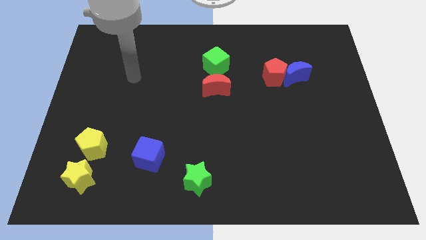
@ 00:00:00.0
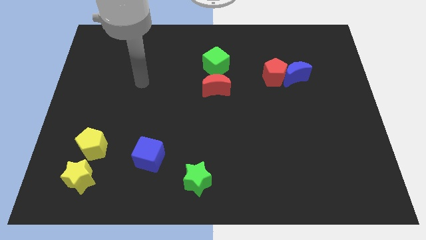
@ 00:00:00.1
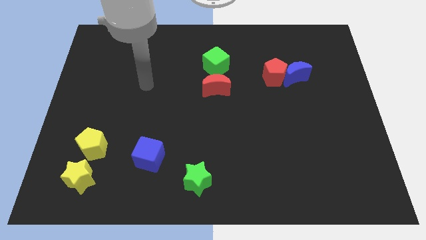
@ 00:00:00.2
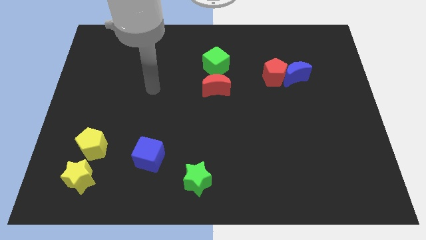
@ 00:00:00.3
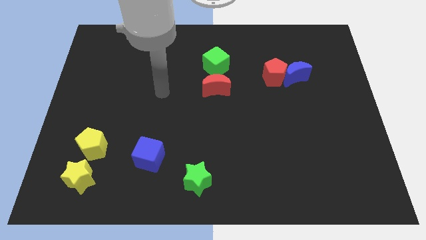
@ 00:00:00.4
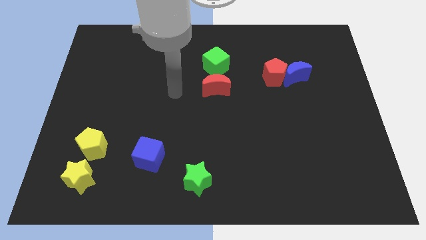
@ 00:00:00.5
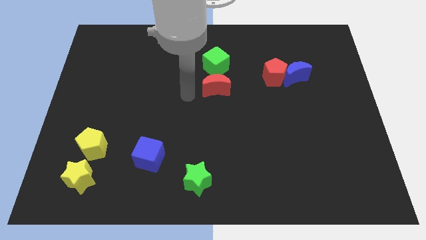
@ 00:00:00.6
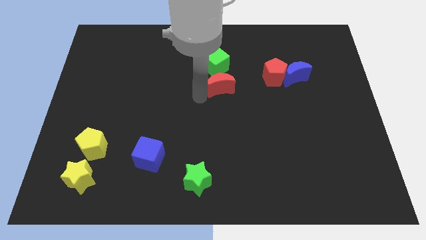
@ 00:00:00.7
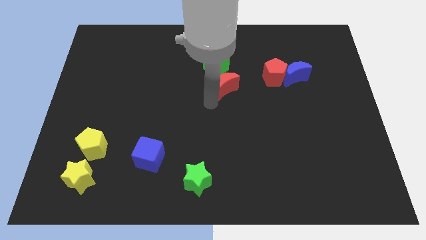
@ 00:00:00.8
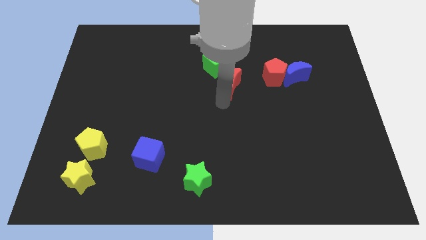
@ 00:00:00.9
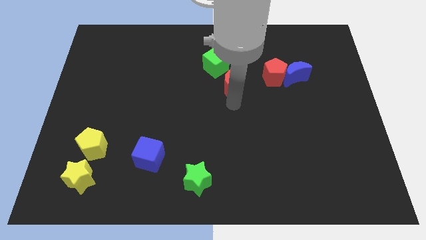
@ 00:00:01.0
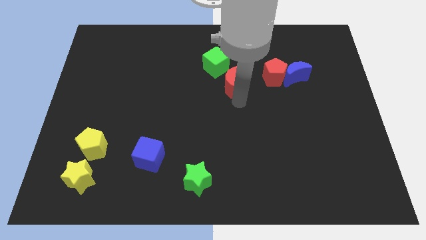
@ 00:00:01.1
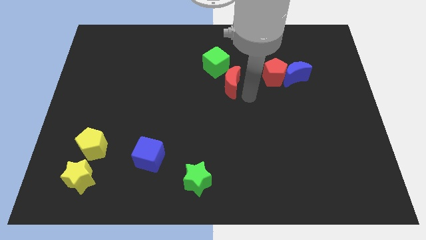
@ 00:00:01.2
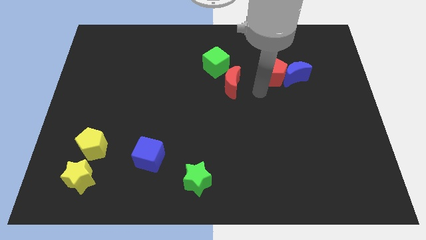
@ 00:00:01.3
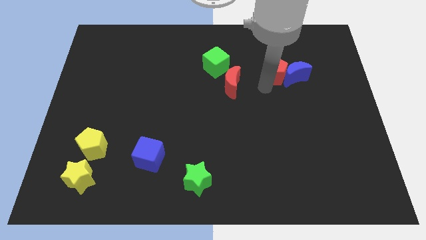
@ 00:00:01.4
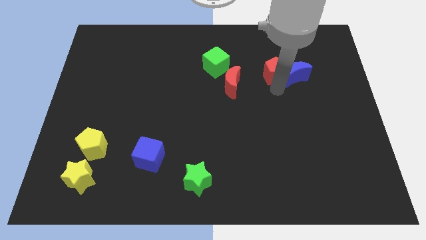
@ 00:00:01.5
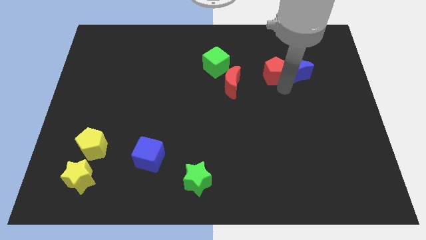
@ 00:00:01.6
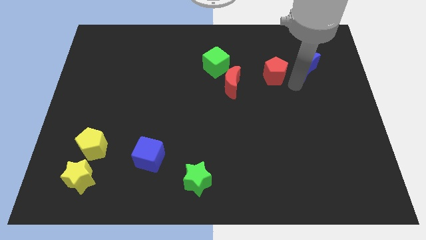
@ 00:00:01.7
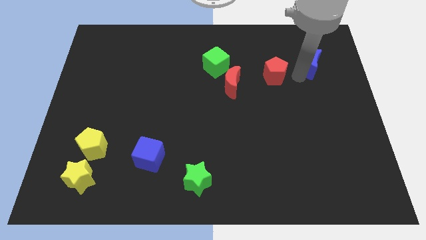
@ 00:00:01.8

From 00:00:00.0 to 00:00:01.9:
pull the red pentagon apart from the blue moon

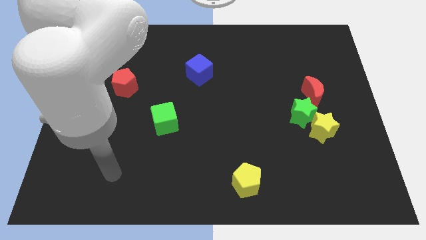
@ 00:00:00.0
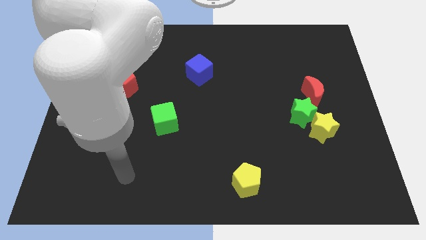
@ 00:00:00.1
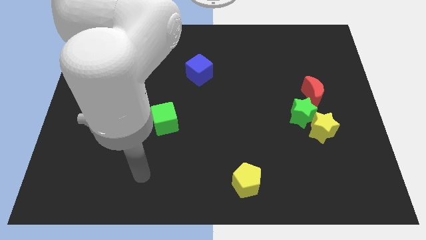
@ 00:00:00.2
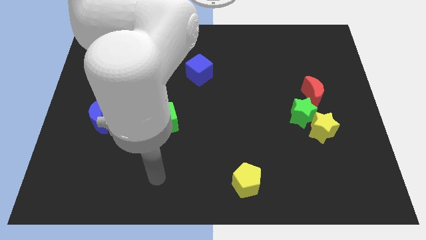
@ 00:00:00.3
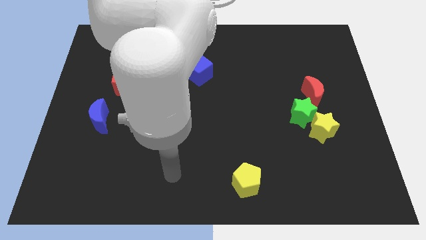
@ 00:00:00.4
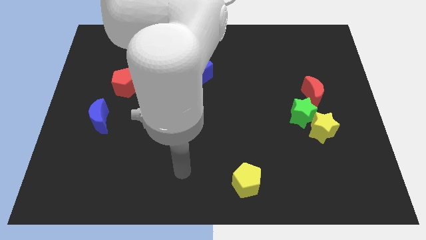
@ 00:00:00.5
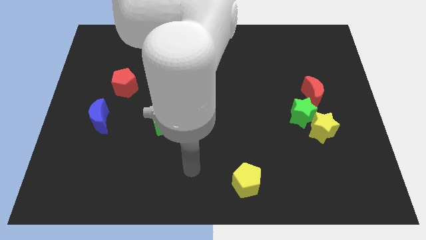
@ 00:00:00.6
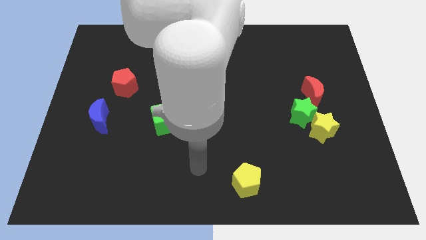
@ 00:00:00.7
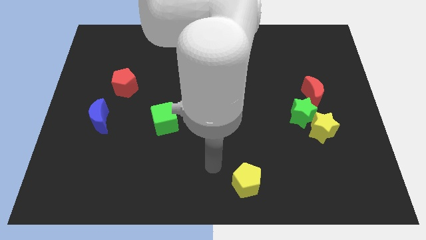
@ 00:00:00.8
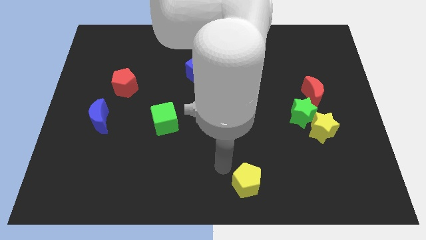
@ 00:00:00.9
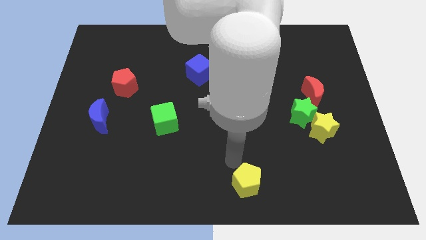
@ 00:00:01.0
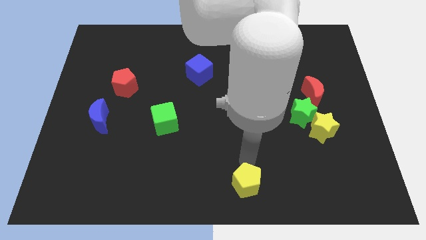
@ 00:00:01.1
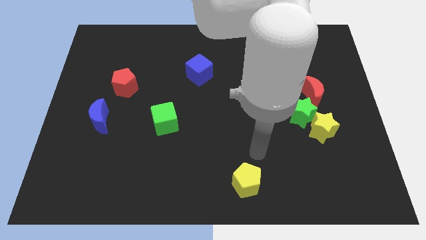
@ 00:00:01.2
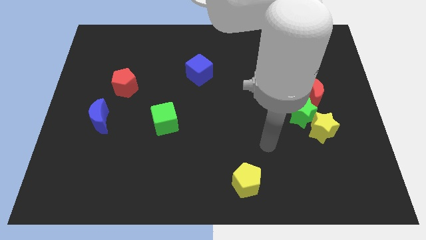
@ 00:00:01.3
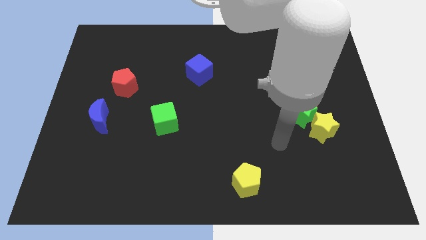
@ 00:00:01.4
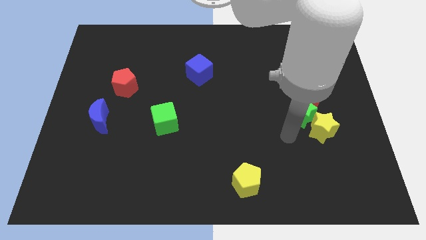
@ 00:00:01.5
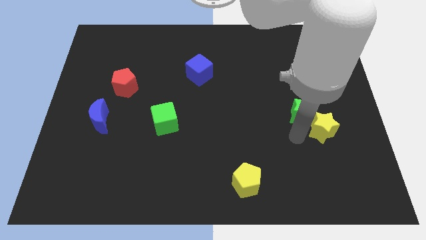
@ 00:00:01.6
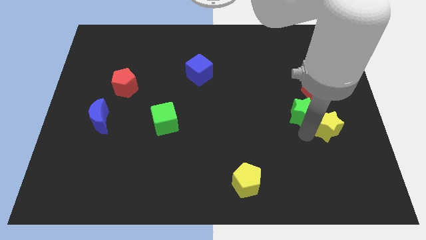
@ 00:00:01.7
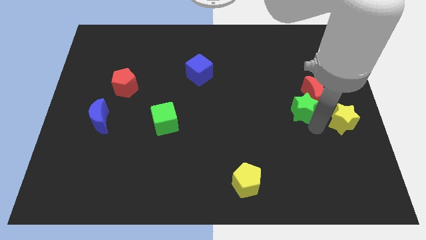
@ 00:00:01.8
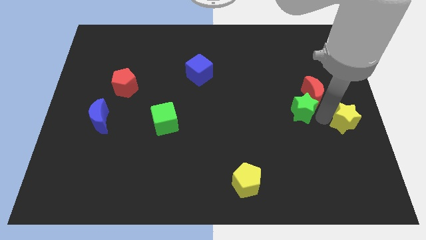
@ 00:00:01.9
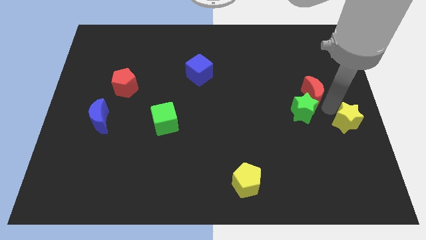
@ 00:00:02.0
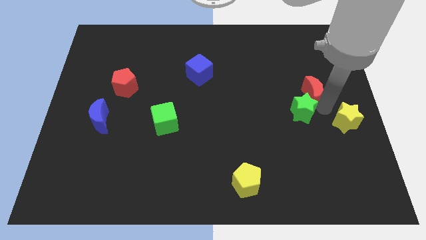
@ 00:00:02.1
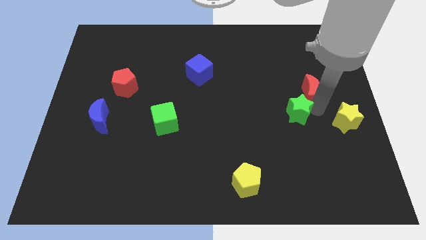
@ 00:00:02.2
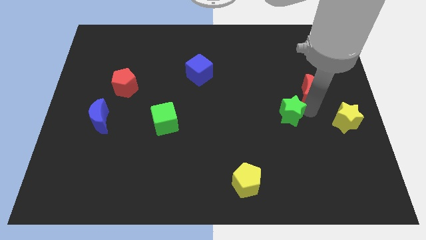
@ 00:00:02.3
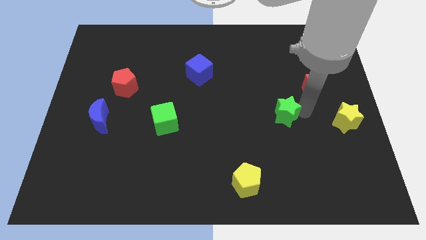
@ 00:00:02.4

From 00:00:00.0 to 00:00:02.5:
move the green star away from the yellow star and red moon

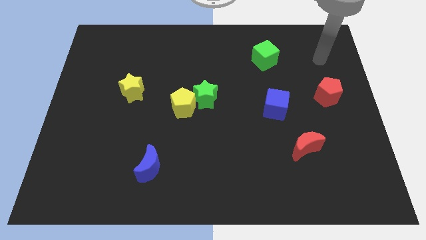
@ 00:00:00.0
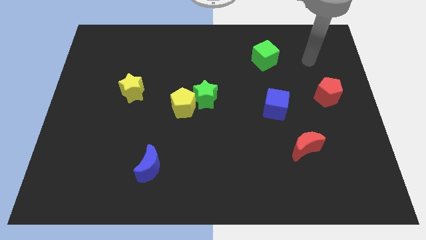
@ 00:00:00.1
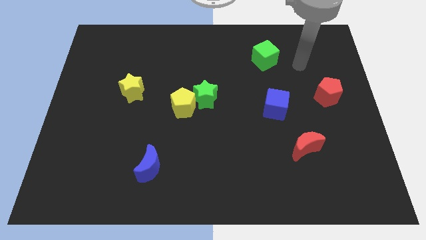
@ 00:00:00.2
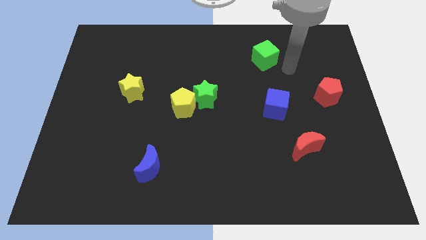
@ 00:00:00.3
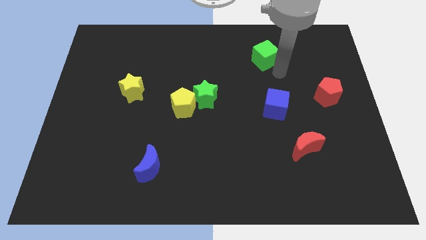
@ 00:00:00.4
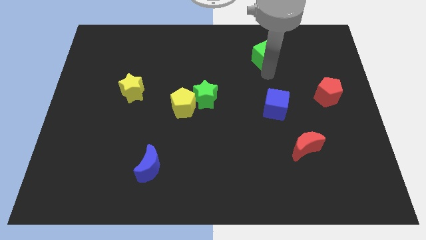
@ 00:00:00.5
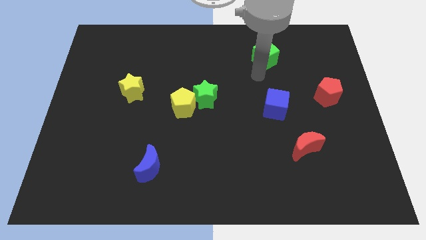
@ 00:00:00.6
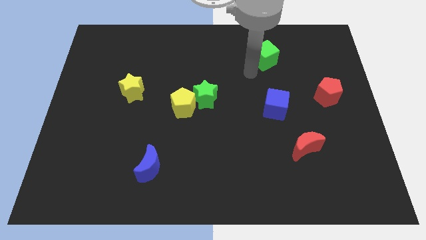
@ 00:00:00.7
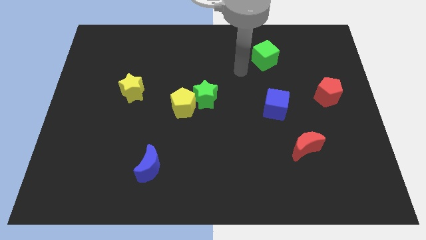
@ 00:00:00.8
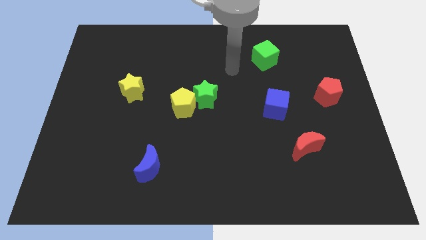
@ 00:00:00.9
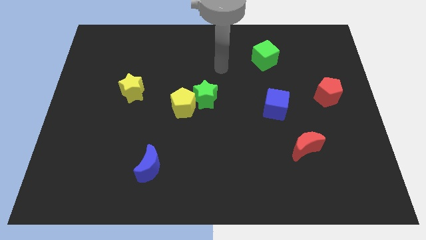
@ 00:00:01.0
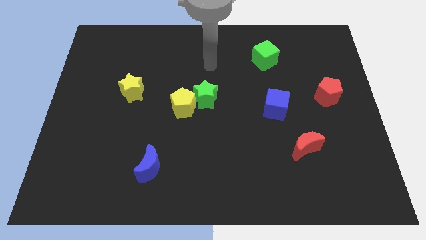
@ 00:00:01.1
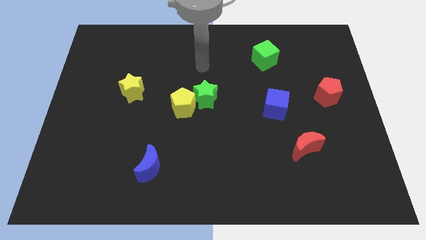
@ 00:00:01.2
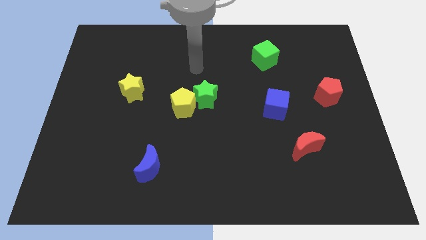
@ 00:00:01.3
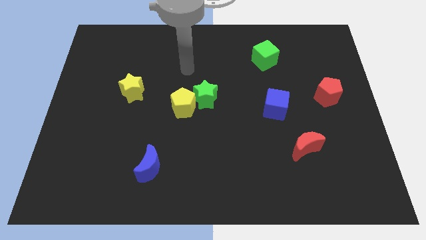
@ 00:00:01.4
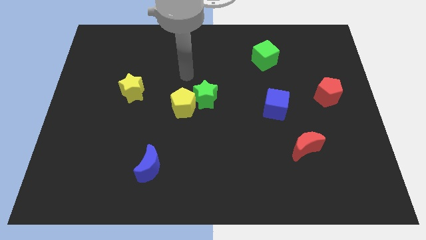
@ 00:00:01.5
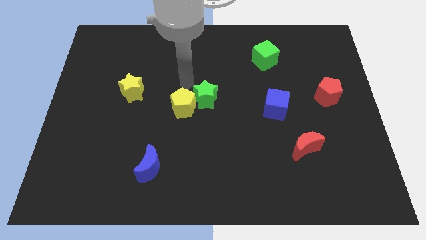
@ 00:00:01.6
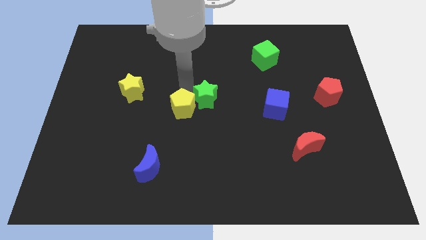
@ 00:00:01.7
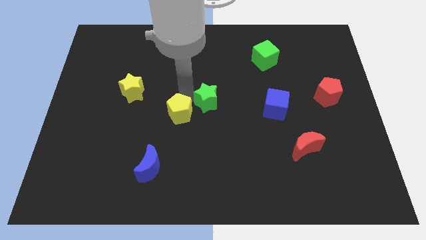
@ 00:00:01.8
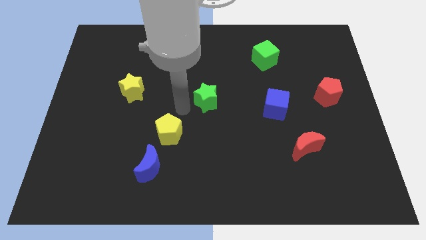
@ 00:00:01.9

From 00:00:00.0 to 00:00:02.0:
separate the green star from the yellow pentagon

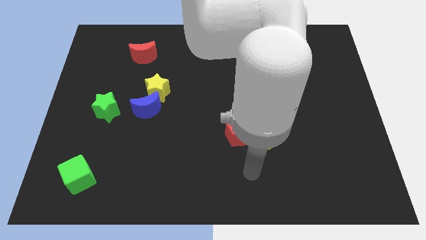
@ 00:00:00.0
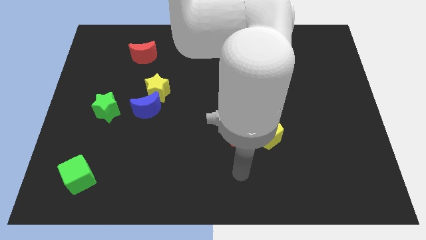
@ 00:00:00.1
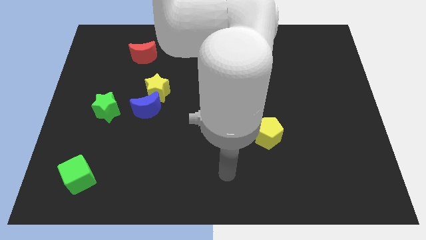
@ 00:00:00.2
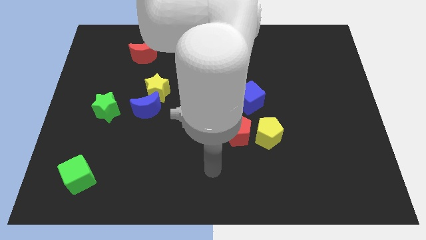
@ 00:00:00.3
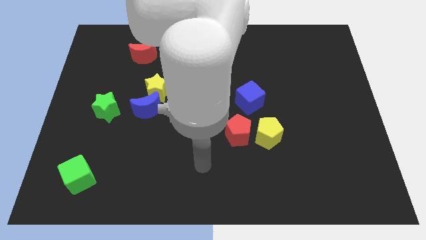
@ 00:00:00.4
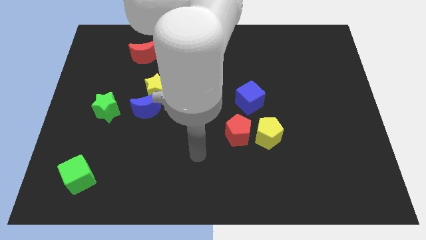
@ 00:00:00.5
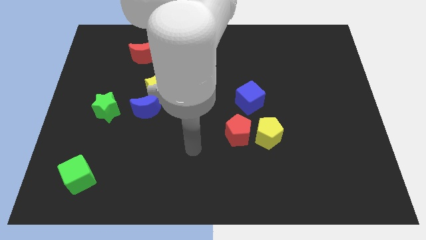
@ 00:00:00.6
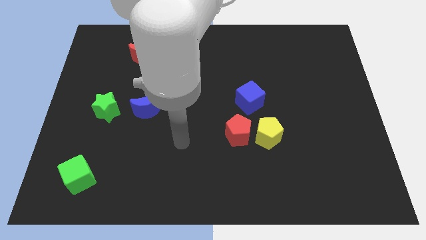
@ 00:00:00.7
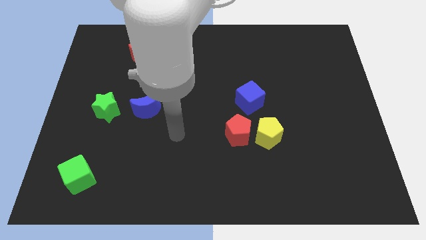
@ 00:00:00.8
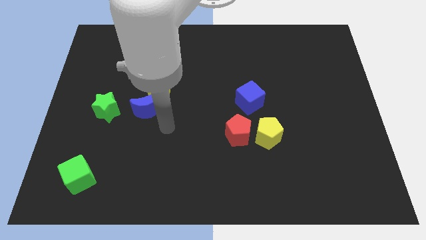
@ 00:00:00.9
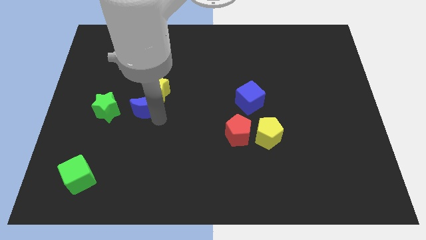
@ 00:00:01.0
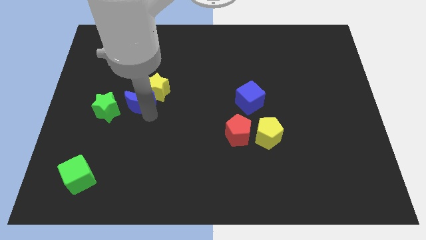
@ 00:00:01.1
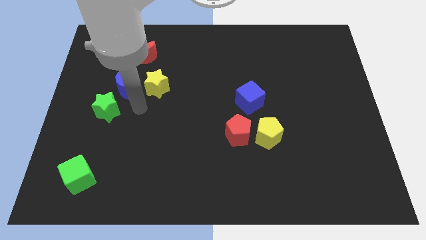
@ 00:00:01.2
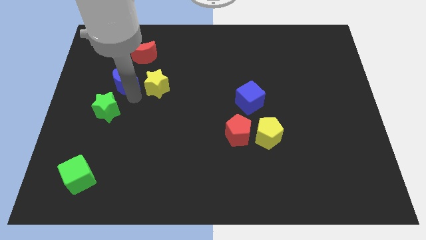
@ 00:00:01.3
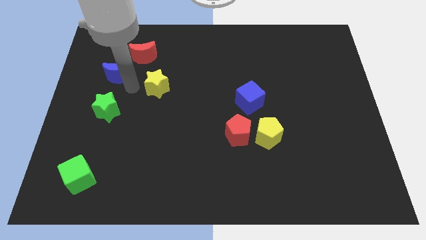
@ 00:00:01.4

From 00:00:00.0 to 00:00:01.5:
separate the yellow star from the blue moon

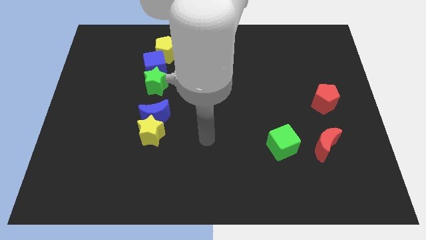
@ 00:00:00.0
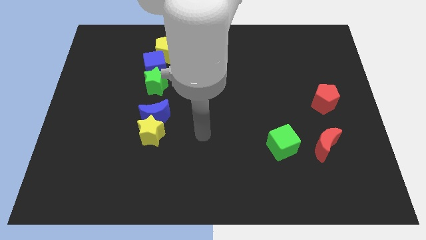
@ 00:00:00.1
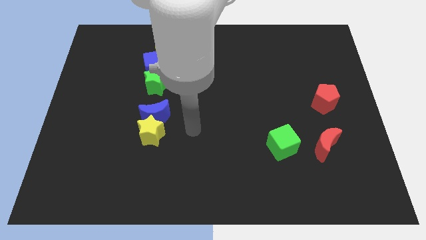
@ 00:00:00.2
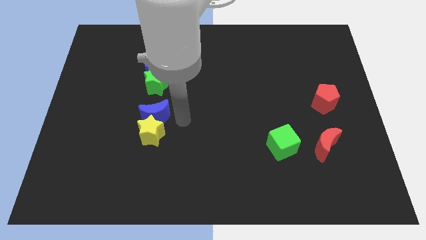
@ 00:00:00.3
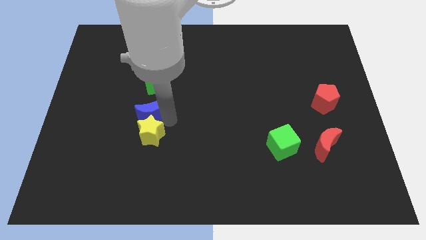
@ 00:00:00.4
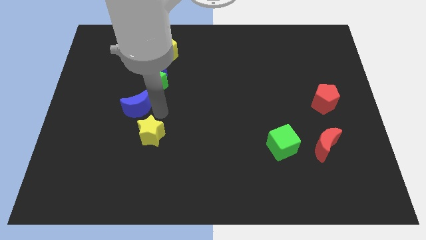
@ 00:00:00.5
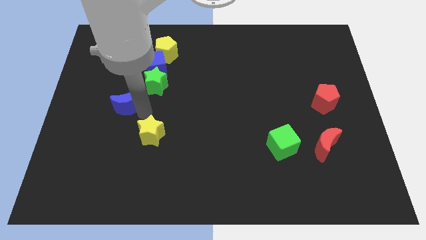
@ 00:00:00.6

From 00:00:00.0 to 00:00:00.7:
pull the yellow star apart from the blue moon

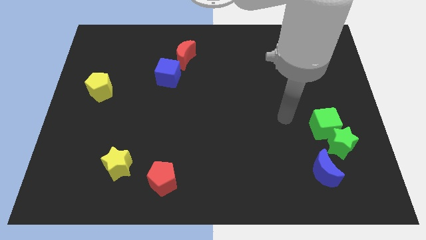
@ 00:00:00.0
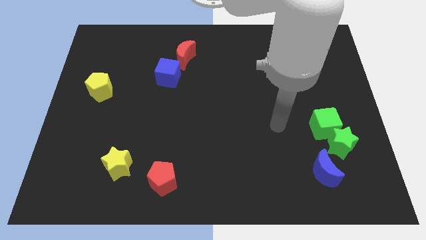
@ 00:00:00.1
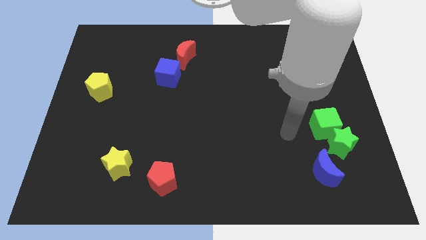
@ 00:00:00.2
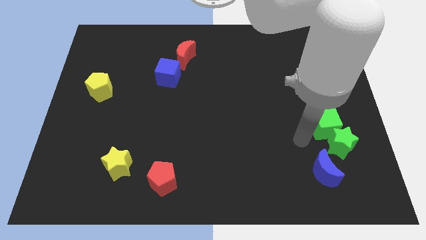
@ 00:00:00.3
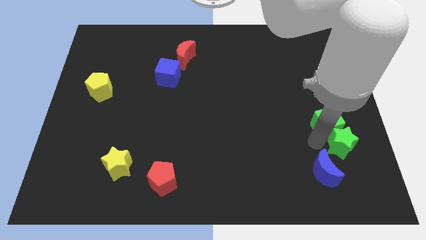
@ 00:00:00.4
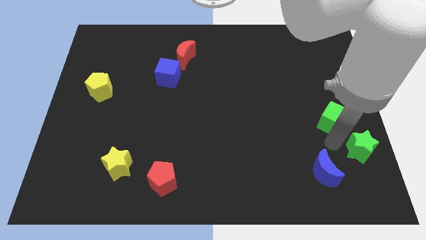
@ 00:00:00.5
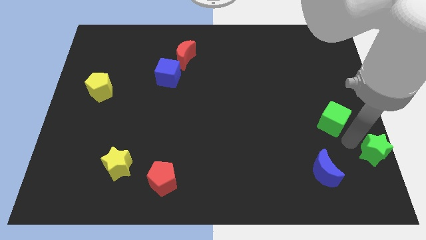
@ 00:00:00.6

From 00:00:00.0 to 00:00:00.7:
separate the green cube from the green star
